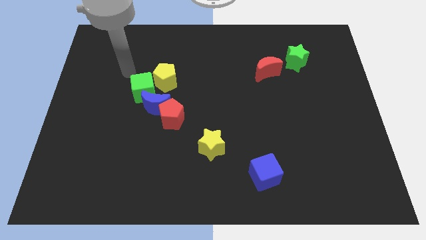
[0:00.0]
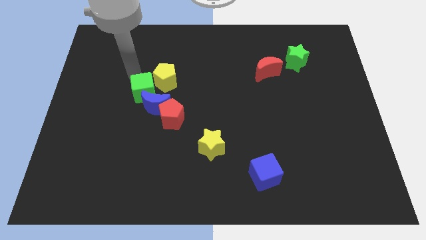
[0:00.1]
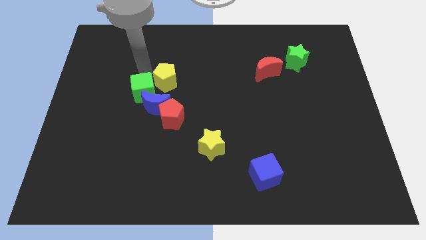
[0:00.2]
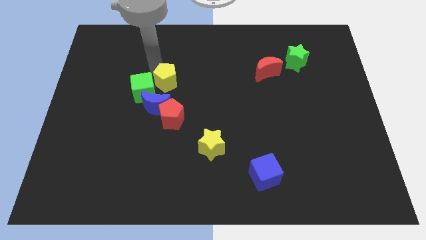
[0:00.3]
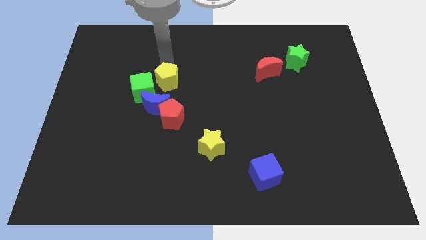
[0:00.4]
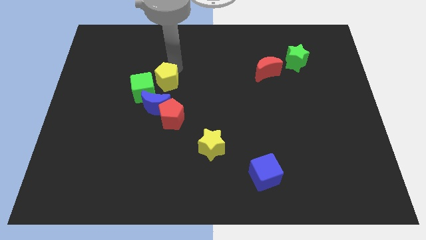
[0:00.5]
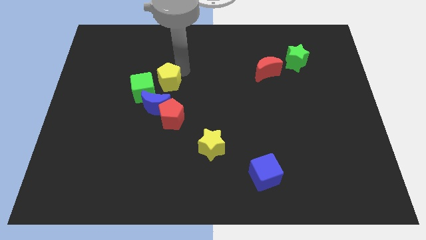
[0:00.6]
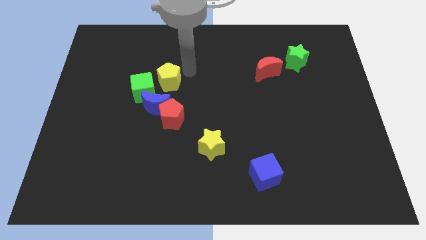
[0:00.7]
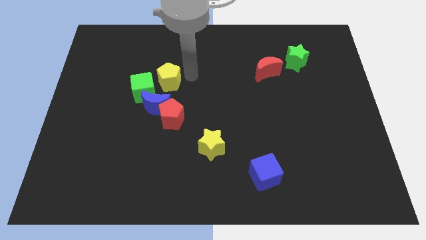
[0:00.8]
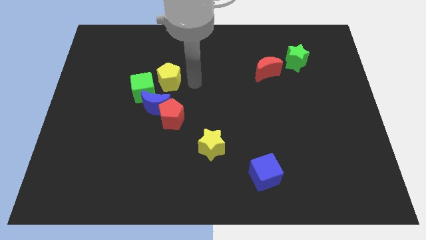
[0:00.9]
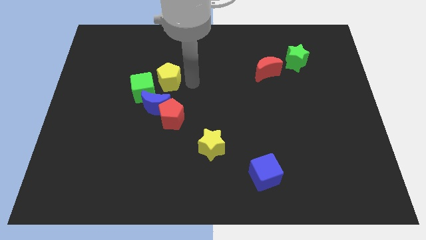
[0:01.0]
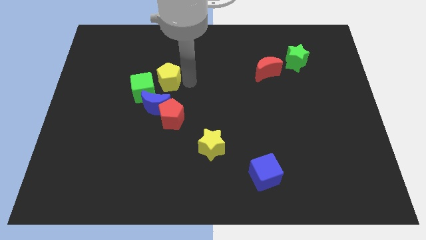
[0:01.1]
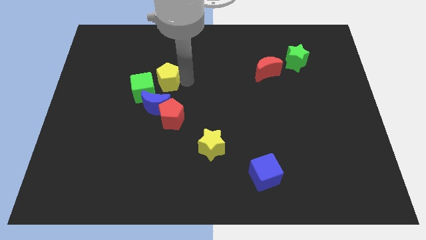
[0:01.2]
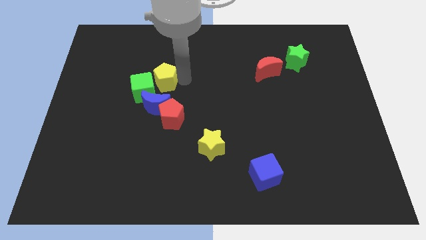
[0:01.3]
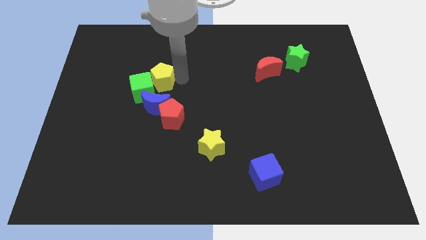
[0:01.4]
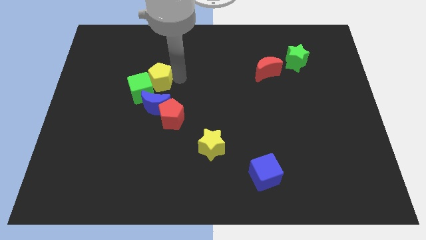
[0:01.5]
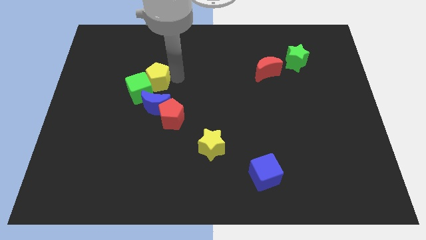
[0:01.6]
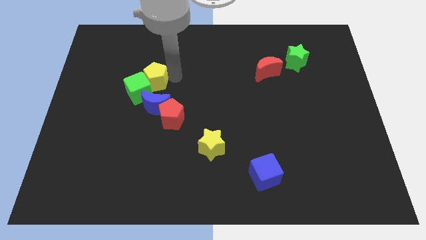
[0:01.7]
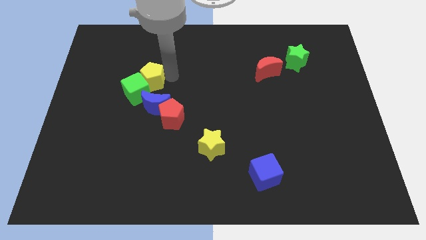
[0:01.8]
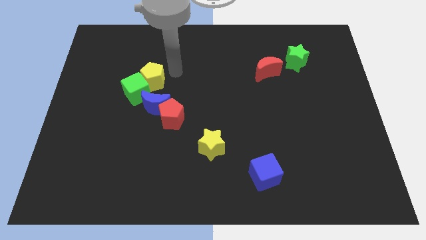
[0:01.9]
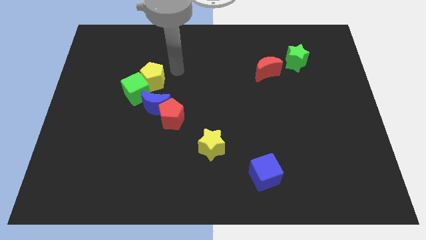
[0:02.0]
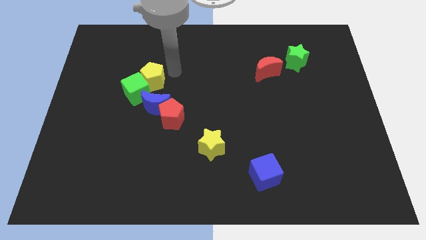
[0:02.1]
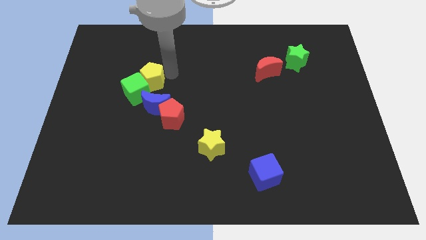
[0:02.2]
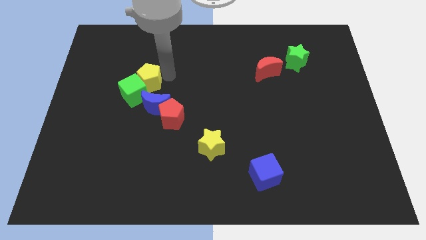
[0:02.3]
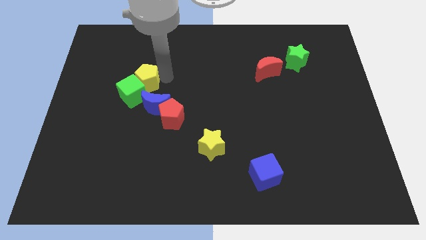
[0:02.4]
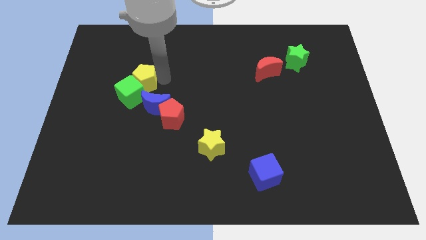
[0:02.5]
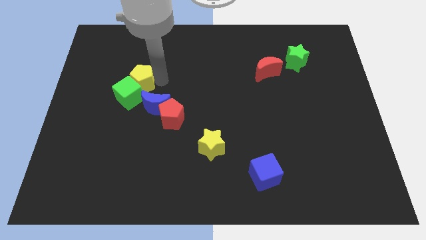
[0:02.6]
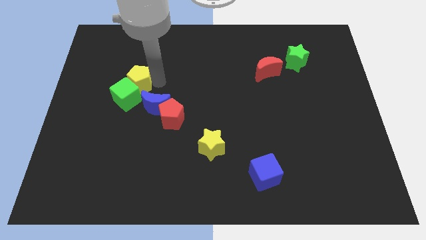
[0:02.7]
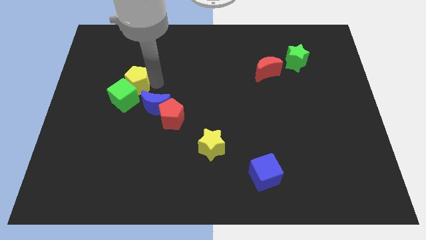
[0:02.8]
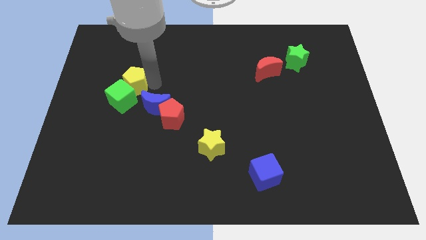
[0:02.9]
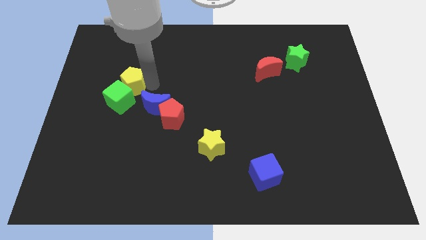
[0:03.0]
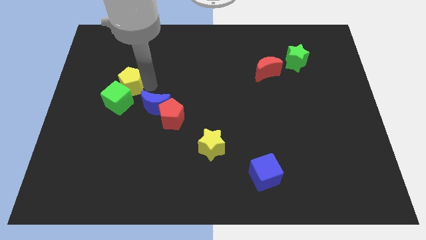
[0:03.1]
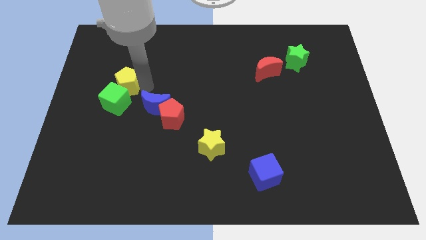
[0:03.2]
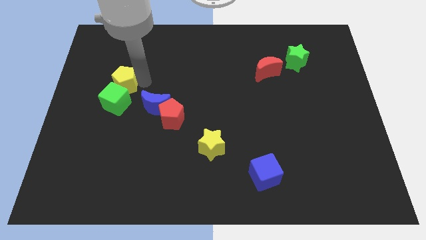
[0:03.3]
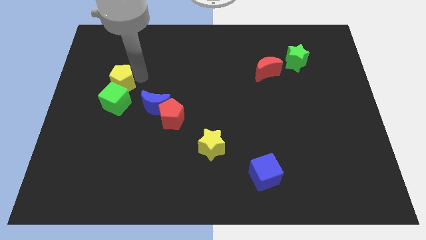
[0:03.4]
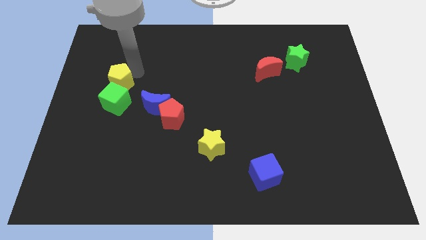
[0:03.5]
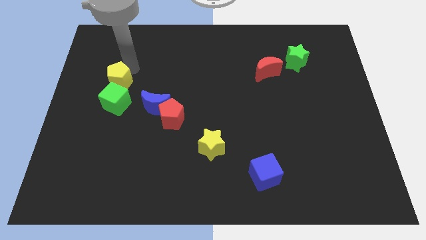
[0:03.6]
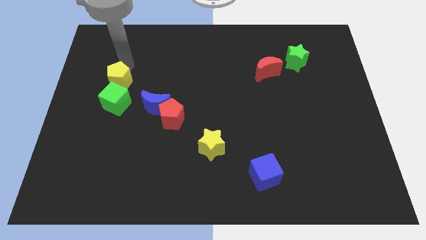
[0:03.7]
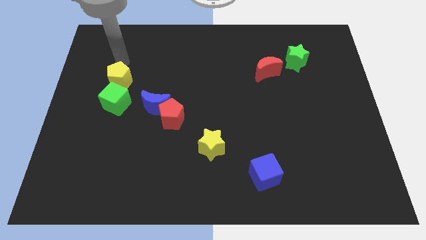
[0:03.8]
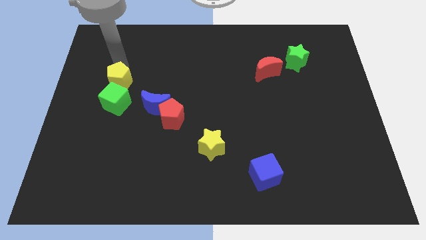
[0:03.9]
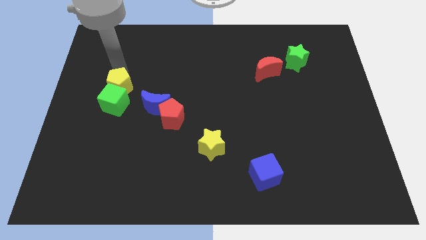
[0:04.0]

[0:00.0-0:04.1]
slightly push the yellow pentagon downwards and then left

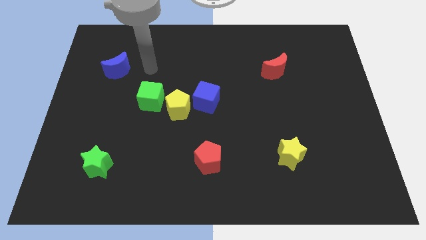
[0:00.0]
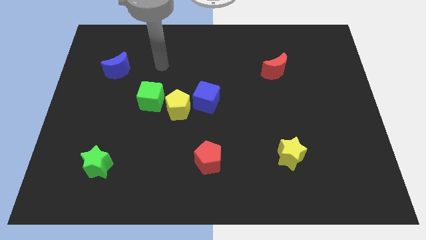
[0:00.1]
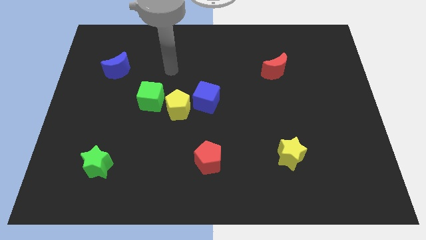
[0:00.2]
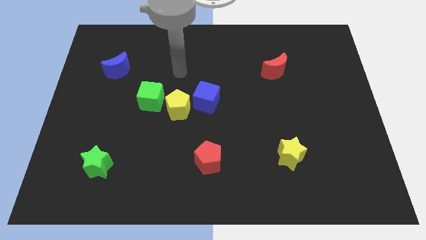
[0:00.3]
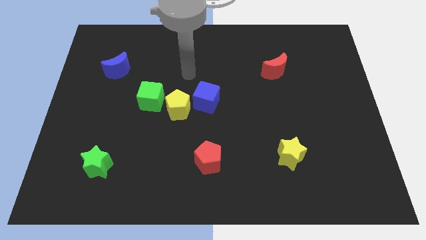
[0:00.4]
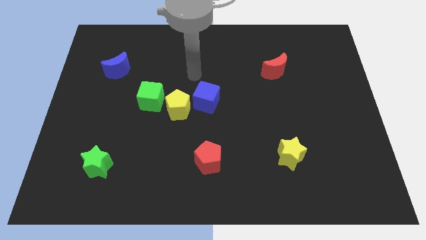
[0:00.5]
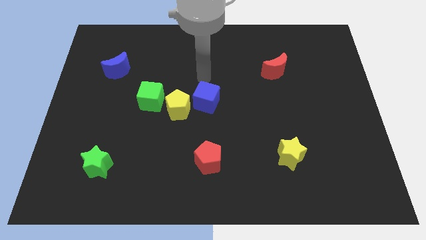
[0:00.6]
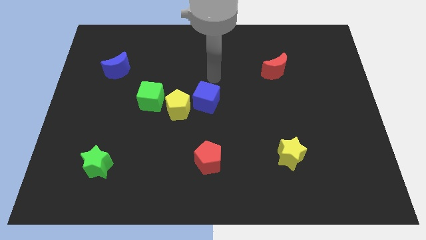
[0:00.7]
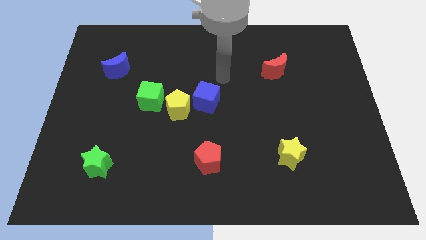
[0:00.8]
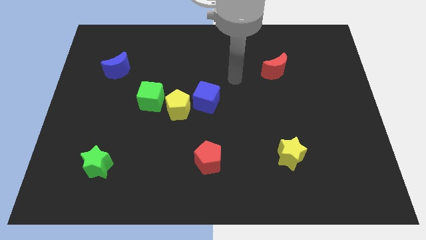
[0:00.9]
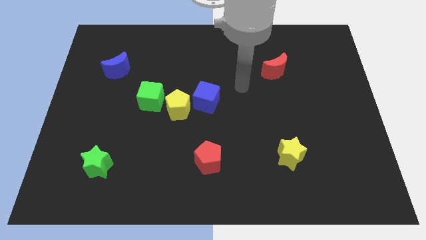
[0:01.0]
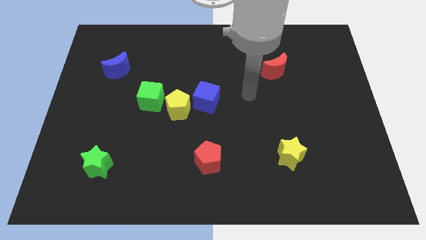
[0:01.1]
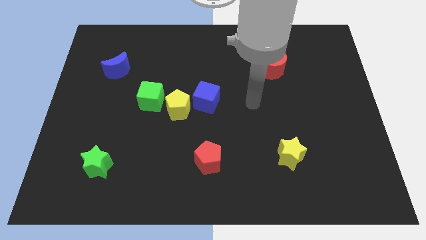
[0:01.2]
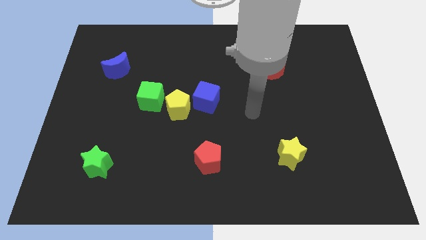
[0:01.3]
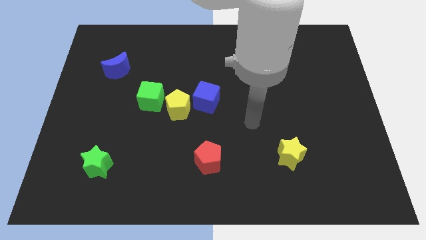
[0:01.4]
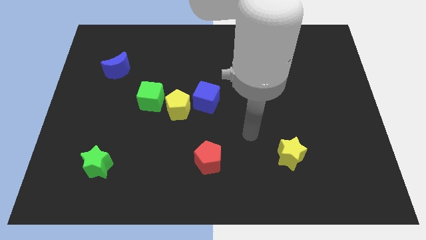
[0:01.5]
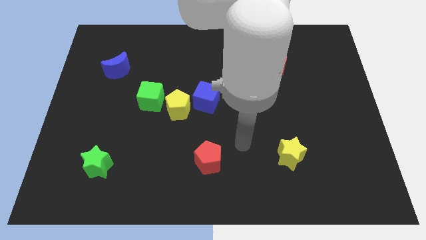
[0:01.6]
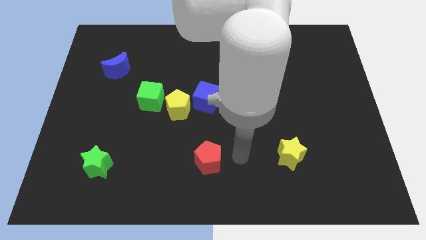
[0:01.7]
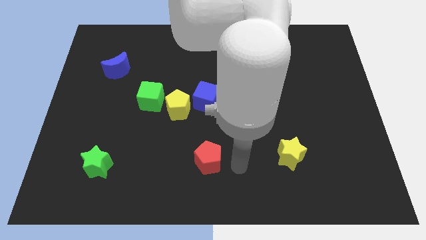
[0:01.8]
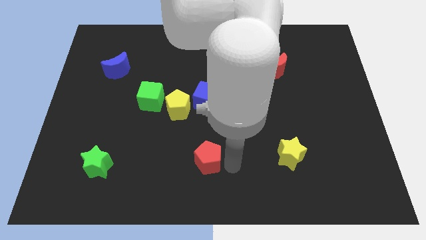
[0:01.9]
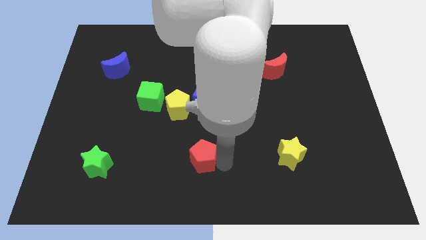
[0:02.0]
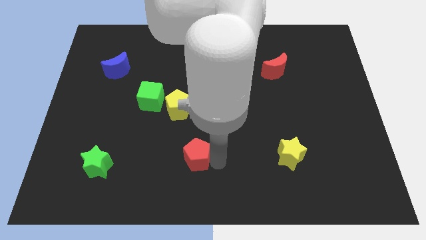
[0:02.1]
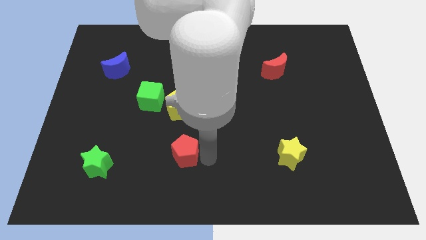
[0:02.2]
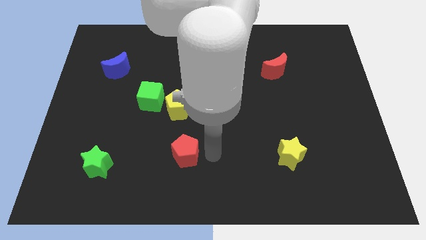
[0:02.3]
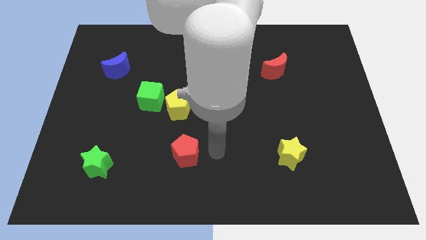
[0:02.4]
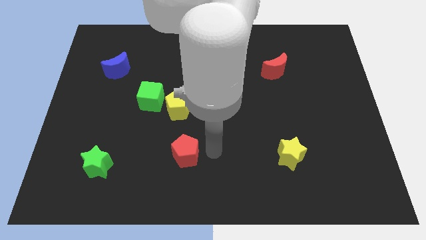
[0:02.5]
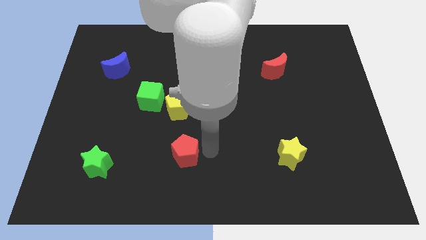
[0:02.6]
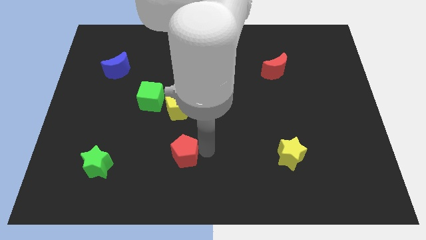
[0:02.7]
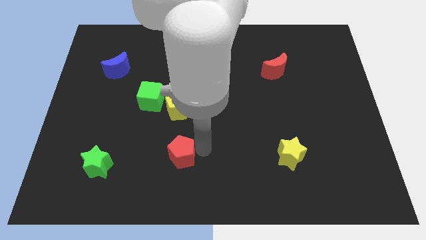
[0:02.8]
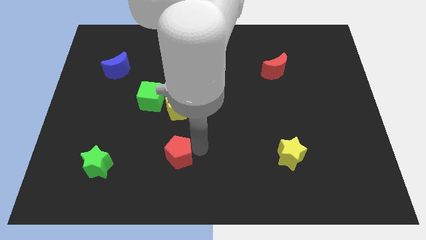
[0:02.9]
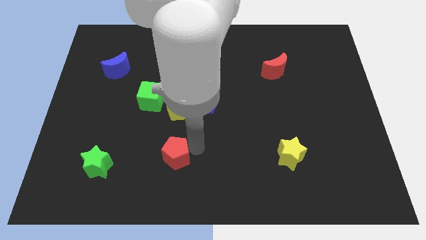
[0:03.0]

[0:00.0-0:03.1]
move the red pentagon left a little bit

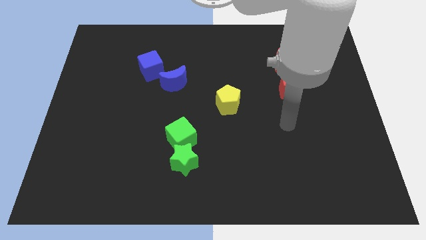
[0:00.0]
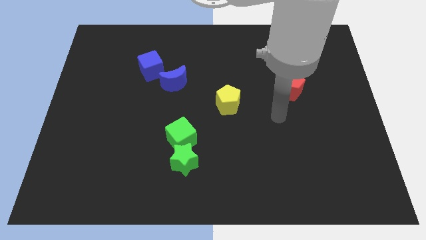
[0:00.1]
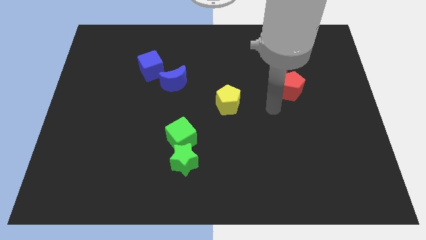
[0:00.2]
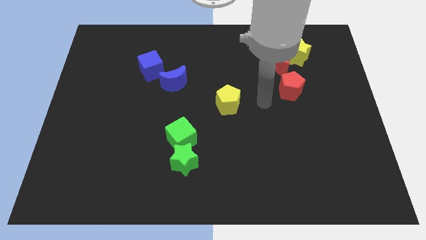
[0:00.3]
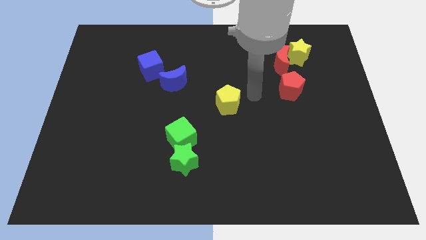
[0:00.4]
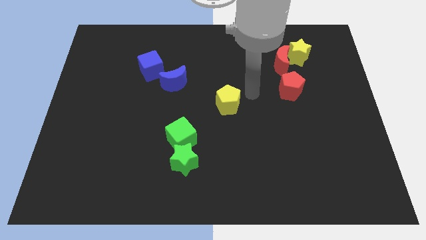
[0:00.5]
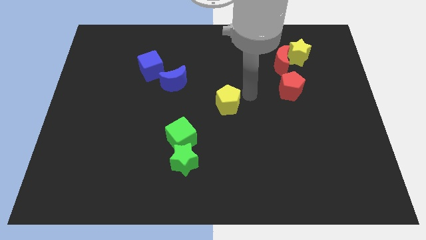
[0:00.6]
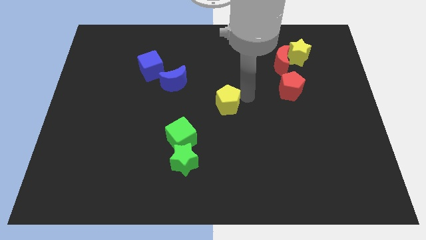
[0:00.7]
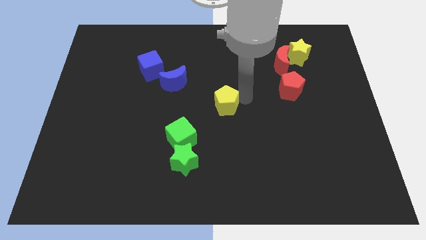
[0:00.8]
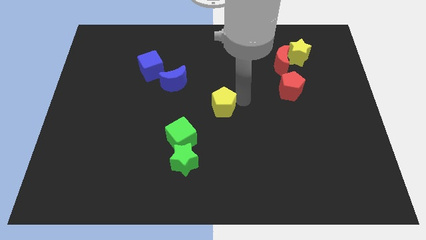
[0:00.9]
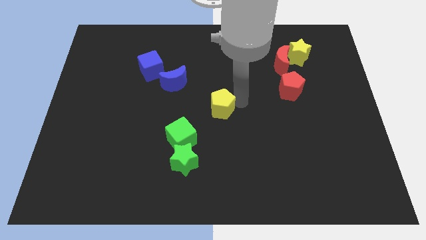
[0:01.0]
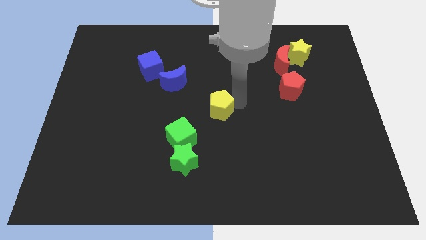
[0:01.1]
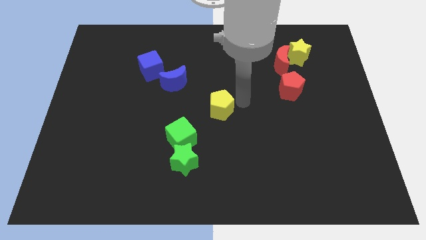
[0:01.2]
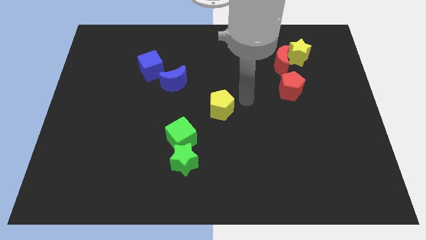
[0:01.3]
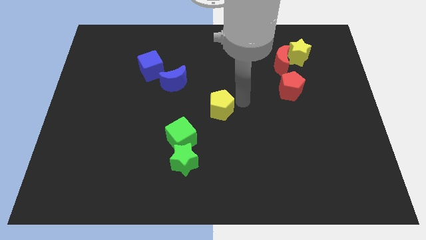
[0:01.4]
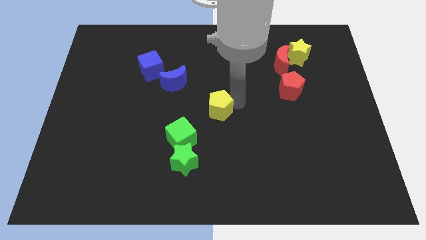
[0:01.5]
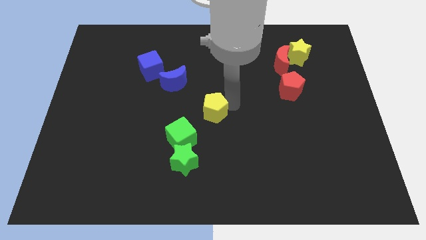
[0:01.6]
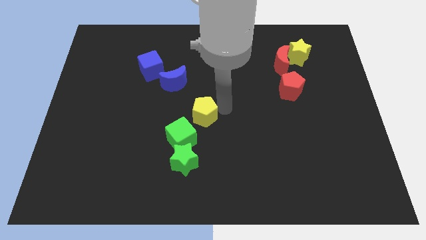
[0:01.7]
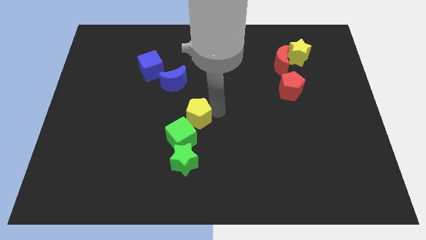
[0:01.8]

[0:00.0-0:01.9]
slightly push the yellow pentagon diagonally down and left
